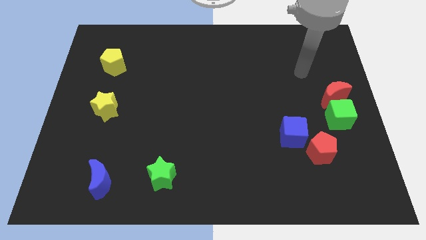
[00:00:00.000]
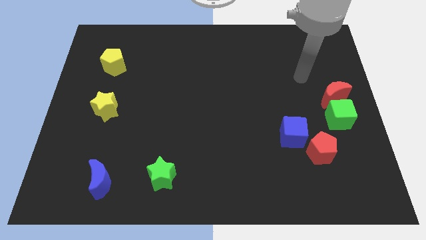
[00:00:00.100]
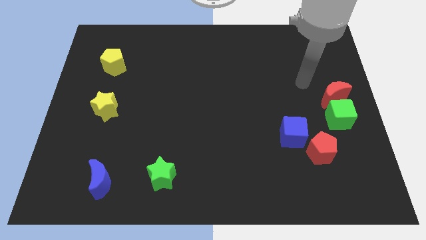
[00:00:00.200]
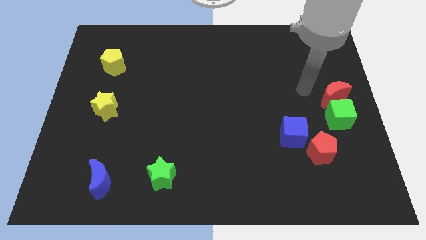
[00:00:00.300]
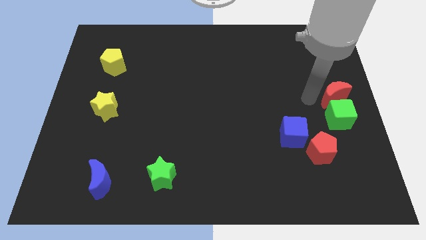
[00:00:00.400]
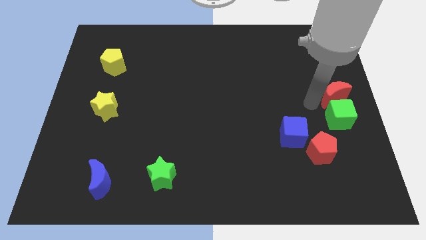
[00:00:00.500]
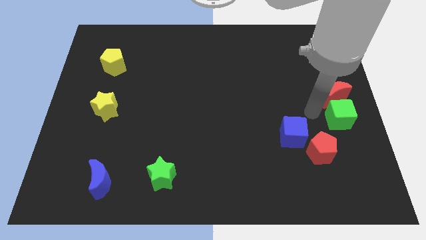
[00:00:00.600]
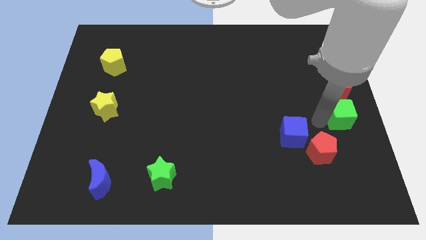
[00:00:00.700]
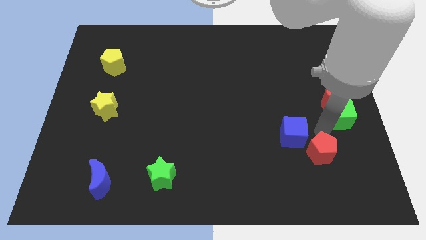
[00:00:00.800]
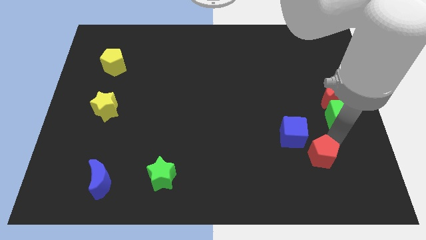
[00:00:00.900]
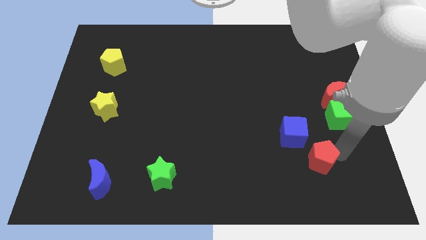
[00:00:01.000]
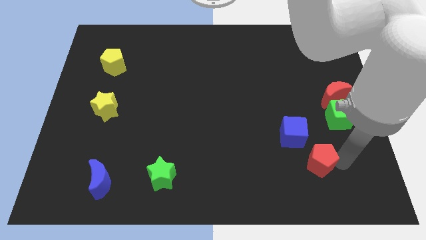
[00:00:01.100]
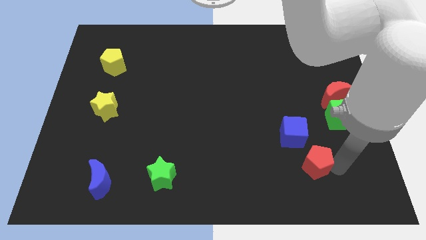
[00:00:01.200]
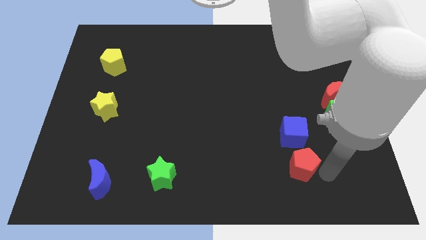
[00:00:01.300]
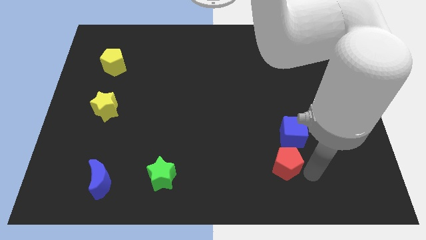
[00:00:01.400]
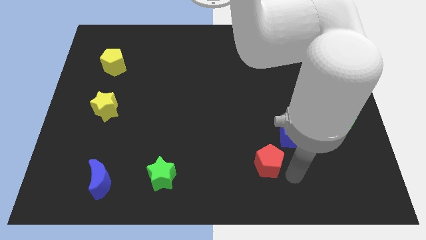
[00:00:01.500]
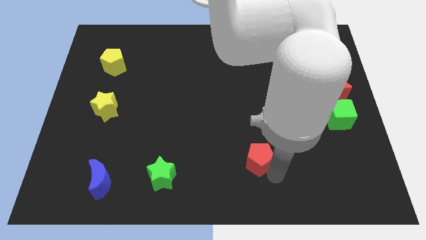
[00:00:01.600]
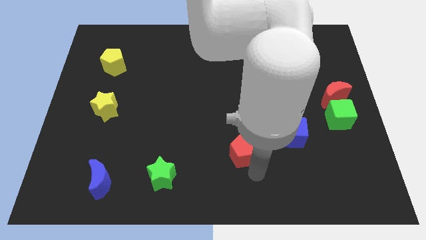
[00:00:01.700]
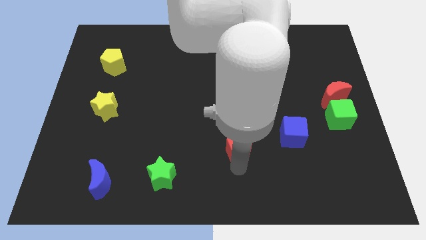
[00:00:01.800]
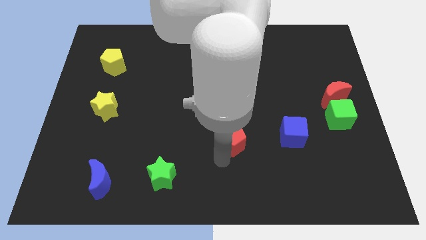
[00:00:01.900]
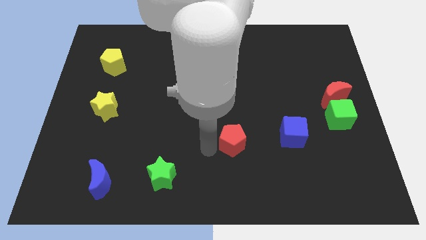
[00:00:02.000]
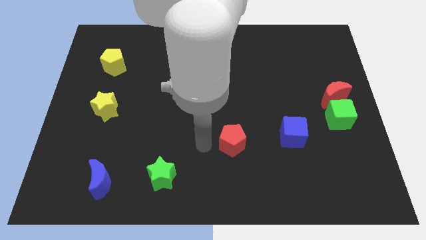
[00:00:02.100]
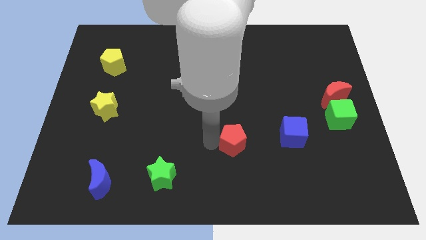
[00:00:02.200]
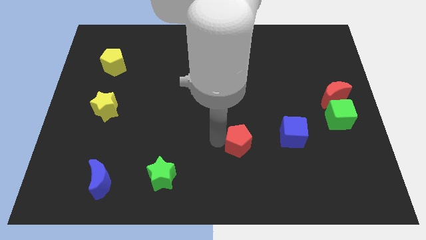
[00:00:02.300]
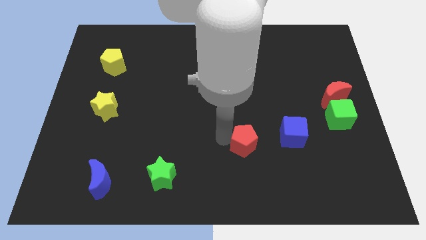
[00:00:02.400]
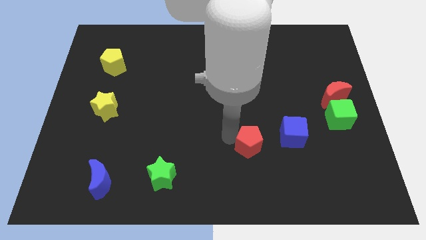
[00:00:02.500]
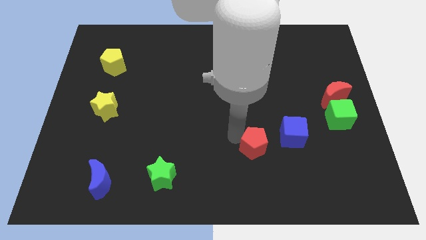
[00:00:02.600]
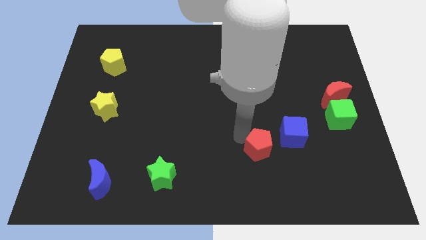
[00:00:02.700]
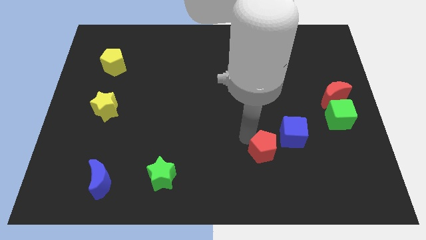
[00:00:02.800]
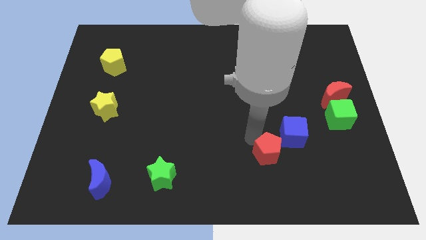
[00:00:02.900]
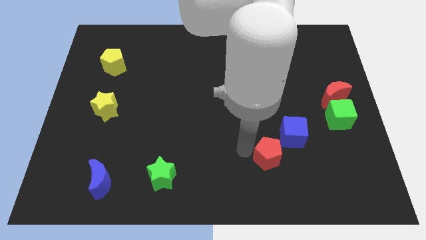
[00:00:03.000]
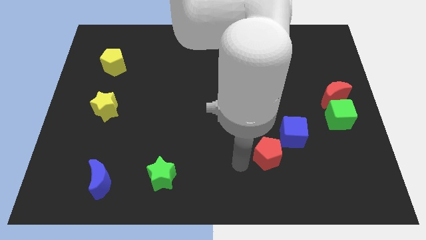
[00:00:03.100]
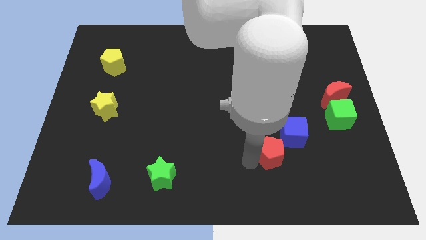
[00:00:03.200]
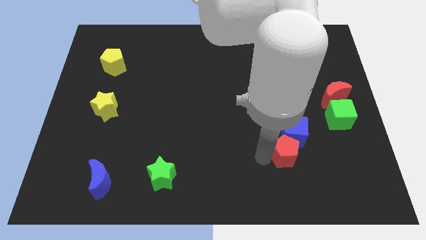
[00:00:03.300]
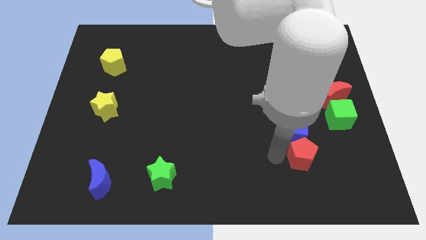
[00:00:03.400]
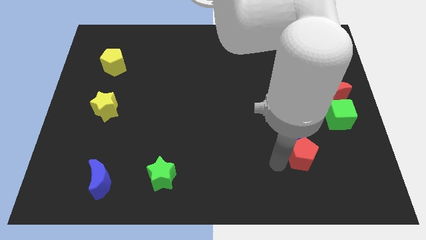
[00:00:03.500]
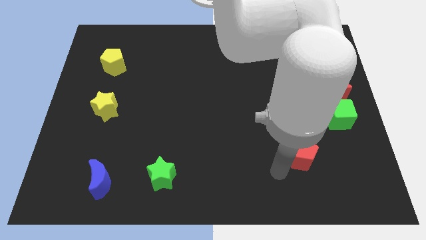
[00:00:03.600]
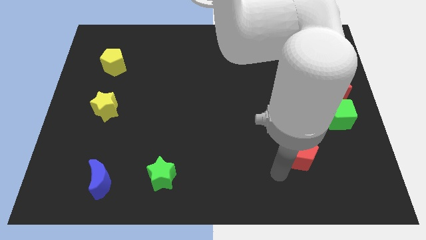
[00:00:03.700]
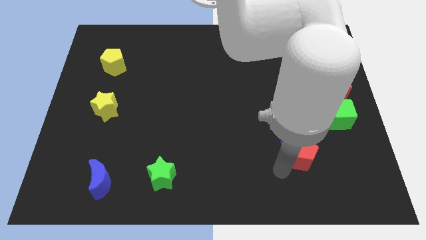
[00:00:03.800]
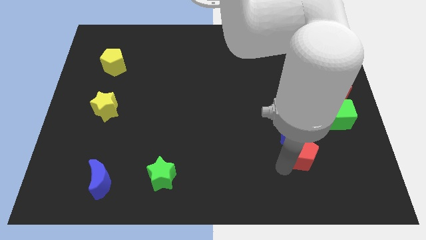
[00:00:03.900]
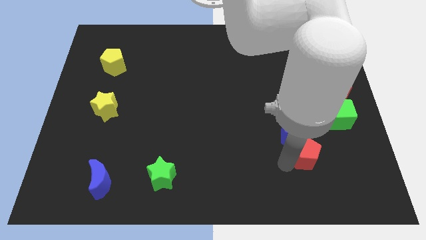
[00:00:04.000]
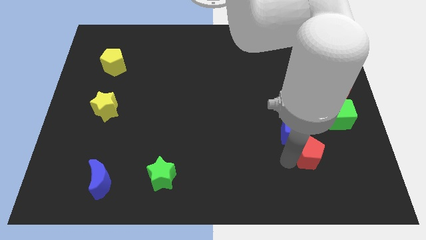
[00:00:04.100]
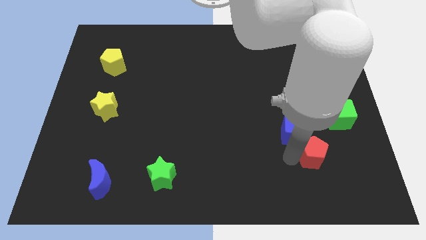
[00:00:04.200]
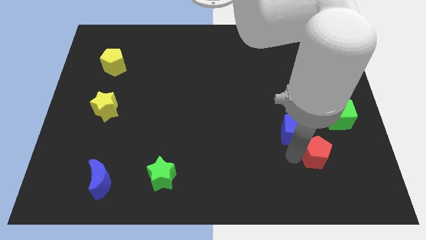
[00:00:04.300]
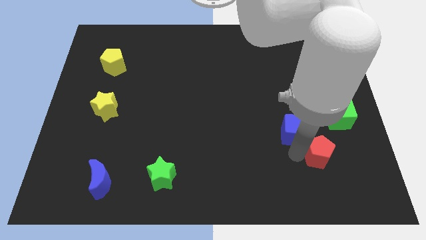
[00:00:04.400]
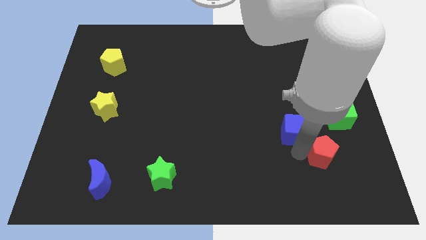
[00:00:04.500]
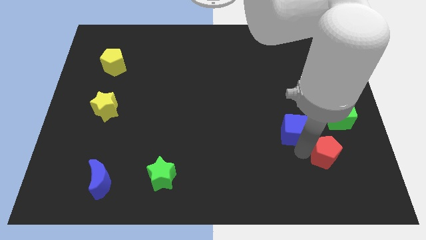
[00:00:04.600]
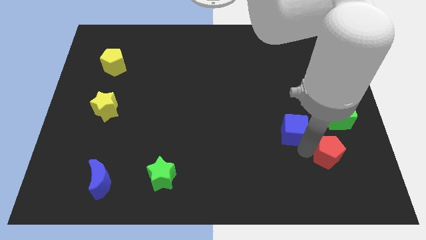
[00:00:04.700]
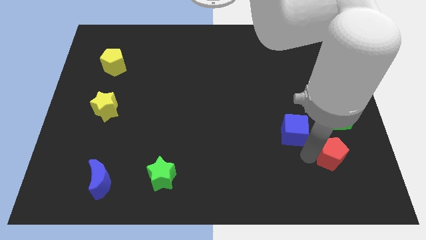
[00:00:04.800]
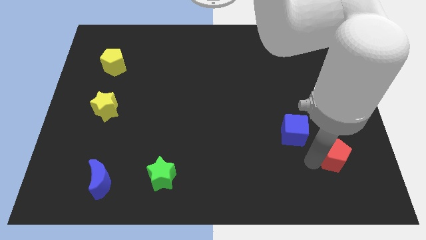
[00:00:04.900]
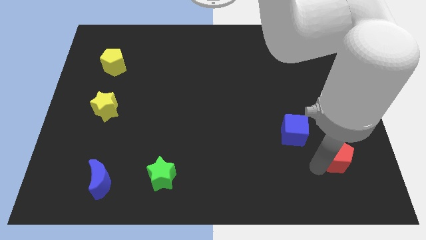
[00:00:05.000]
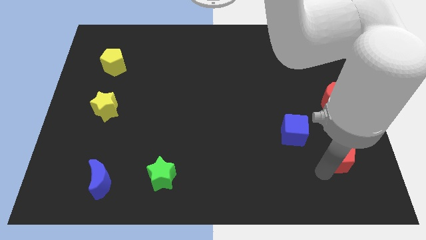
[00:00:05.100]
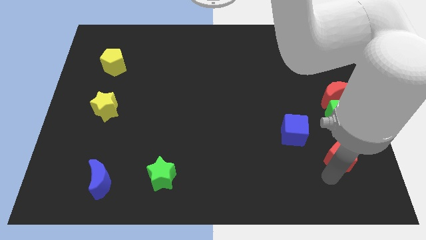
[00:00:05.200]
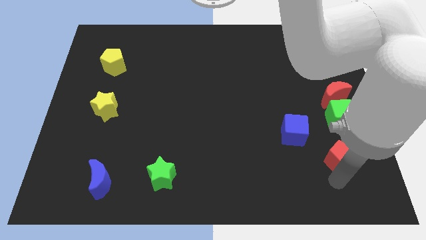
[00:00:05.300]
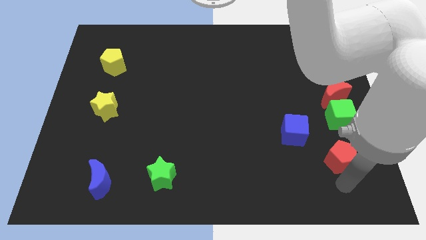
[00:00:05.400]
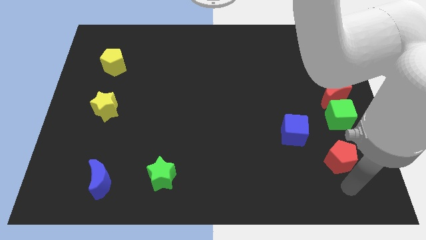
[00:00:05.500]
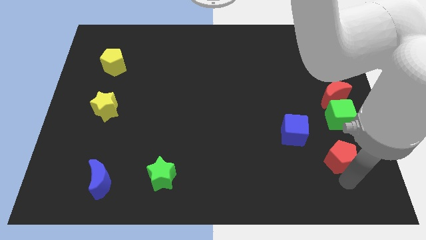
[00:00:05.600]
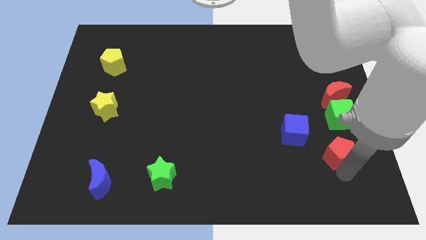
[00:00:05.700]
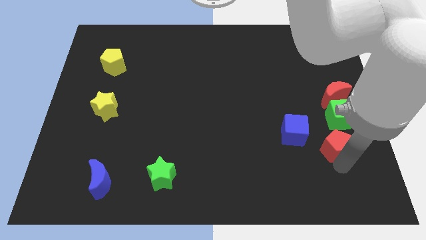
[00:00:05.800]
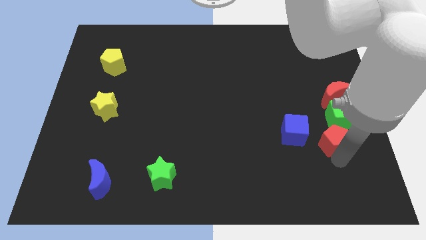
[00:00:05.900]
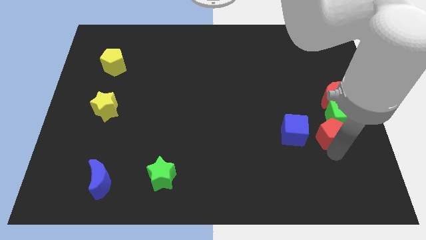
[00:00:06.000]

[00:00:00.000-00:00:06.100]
push the red pentagon towards the green cube
